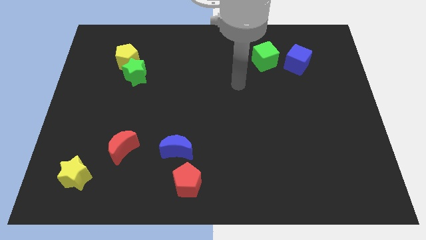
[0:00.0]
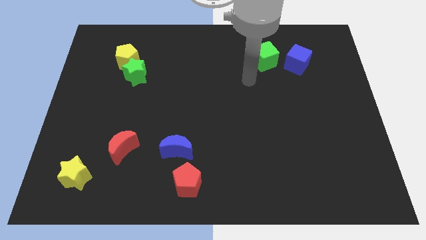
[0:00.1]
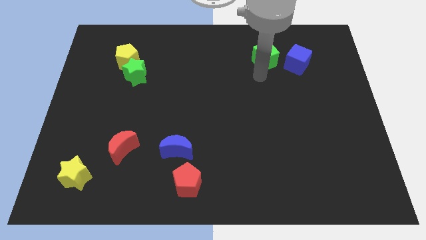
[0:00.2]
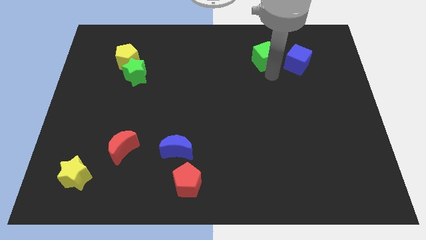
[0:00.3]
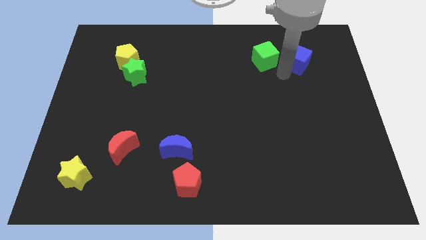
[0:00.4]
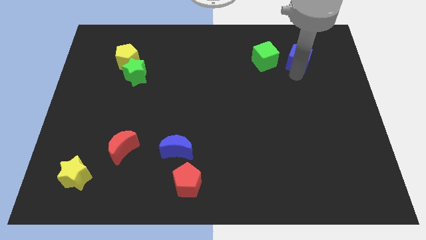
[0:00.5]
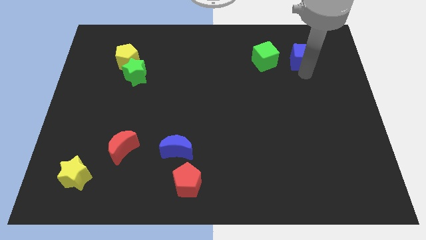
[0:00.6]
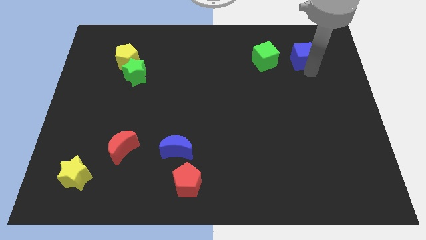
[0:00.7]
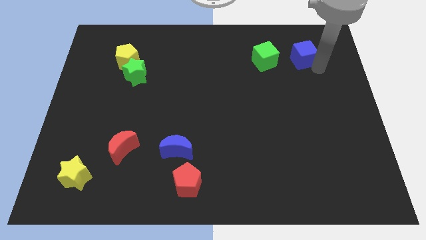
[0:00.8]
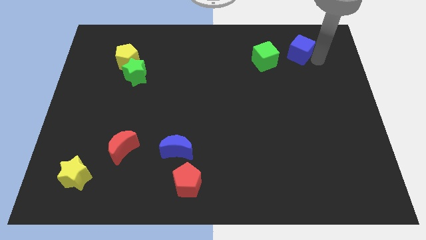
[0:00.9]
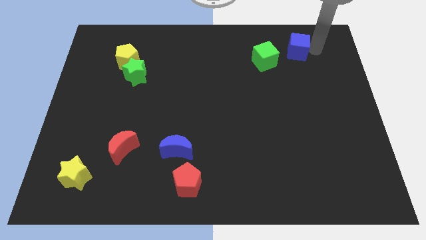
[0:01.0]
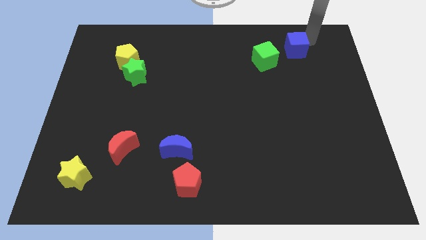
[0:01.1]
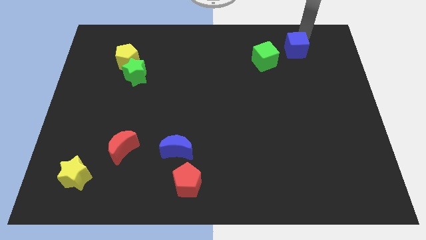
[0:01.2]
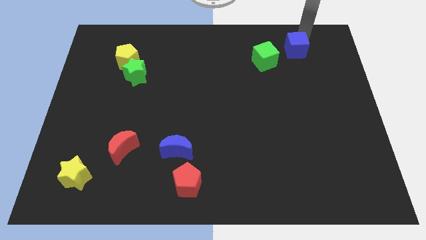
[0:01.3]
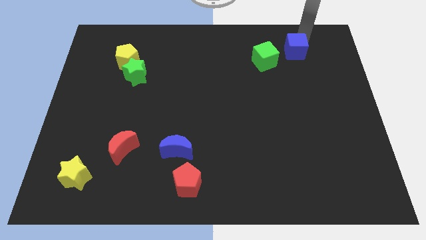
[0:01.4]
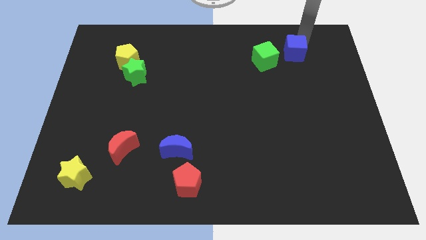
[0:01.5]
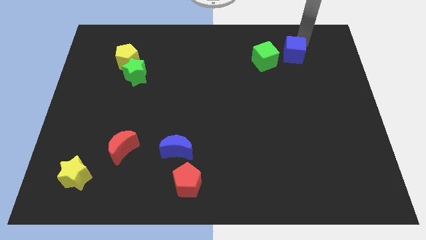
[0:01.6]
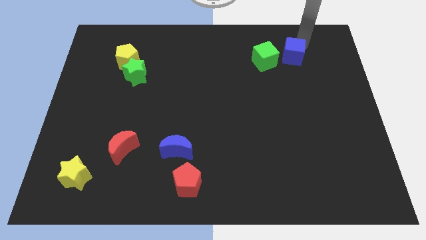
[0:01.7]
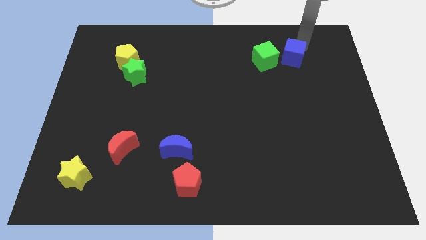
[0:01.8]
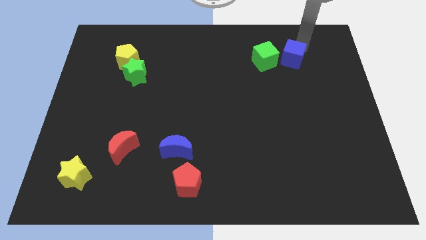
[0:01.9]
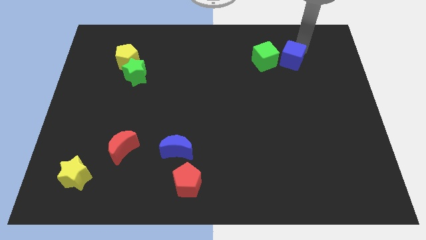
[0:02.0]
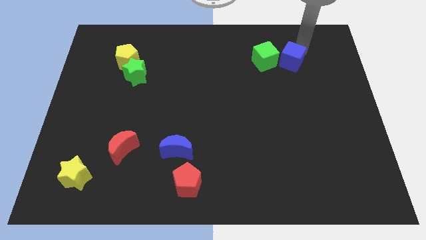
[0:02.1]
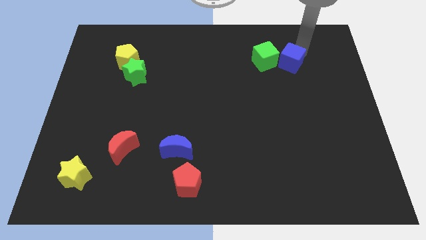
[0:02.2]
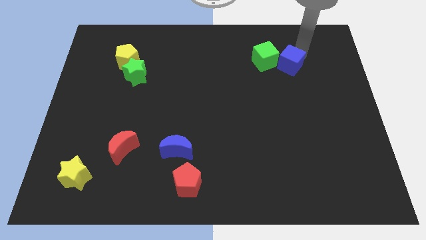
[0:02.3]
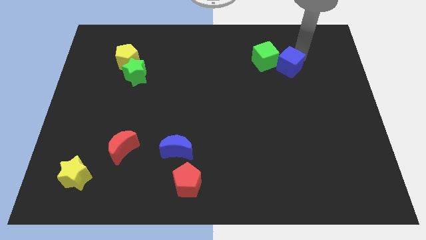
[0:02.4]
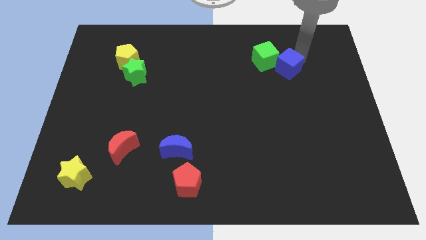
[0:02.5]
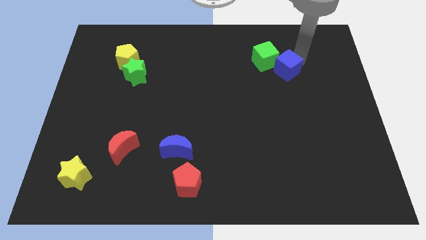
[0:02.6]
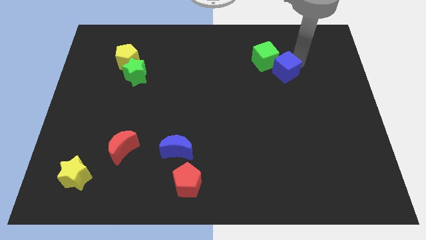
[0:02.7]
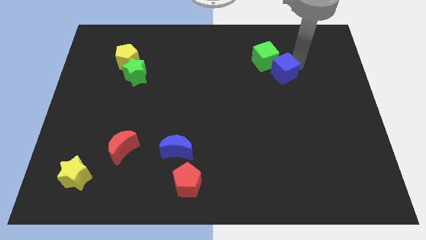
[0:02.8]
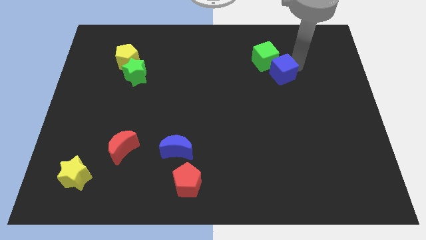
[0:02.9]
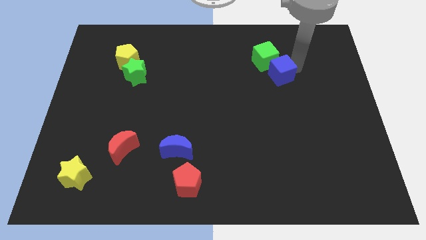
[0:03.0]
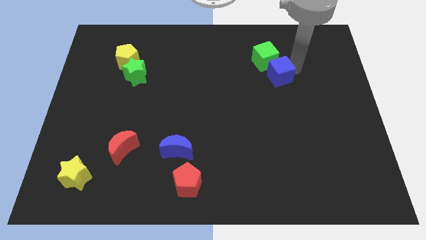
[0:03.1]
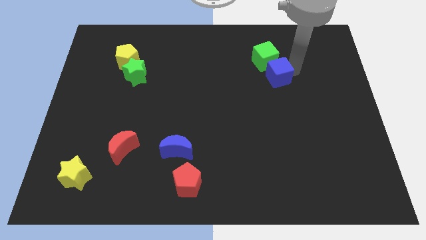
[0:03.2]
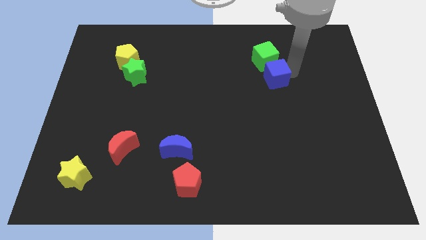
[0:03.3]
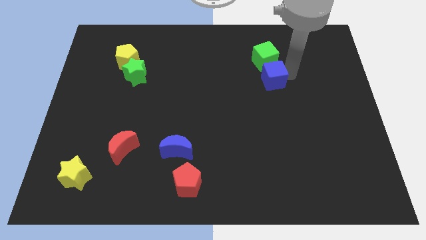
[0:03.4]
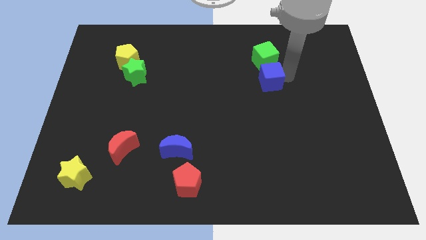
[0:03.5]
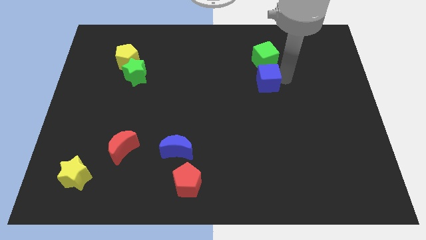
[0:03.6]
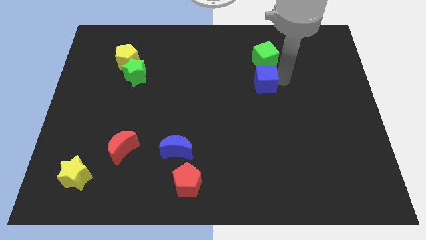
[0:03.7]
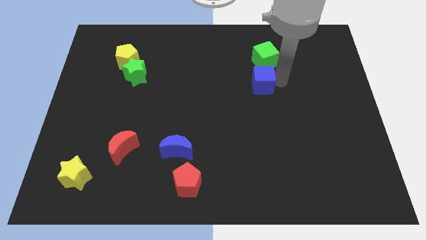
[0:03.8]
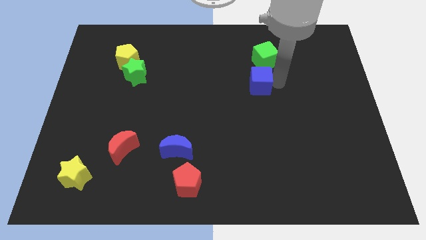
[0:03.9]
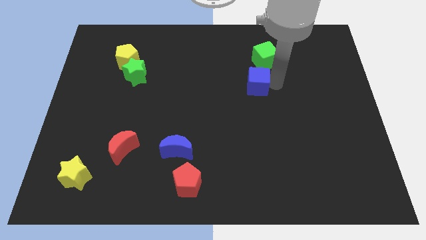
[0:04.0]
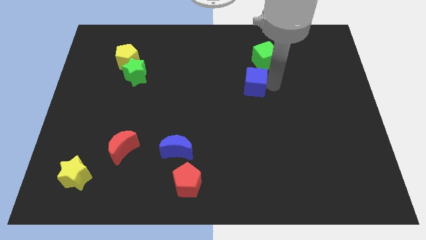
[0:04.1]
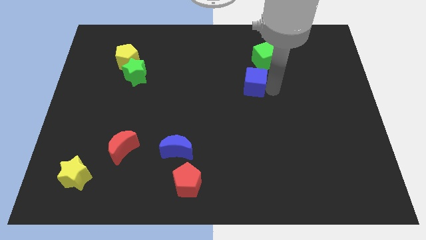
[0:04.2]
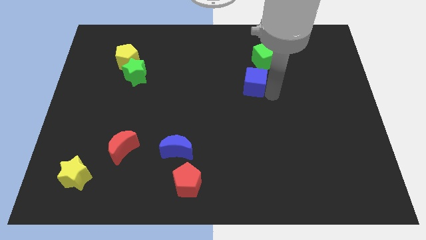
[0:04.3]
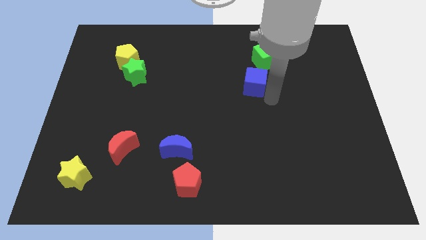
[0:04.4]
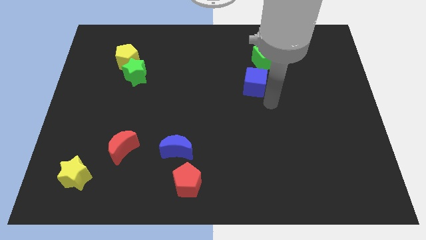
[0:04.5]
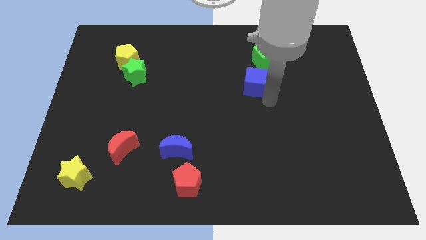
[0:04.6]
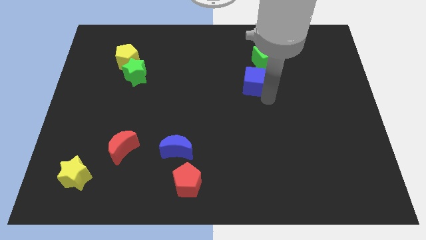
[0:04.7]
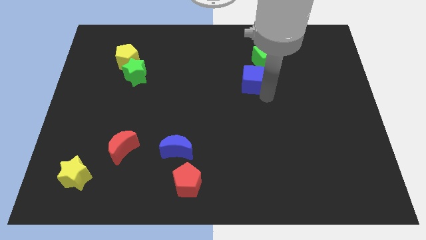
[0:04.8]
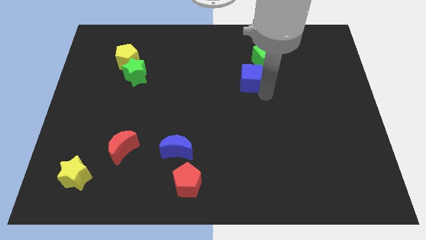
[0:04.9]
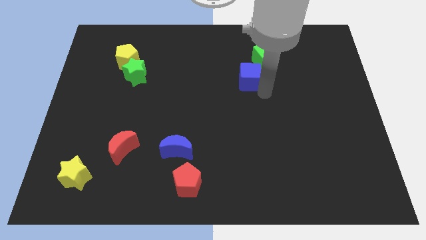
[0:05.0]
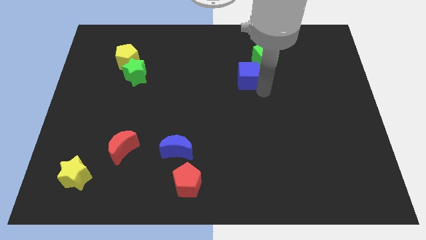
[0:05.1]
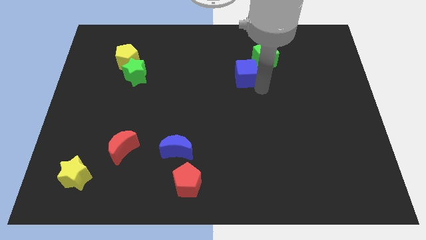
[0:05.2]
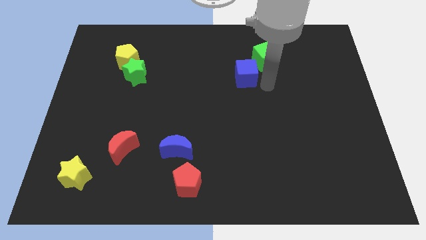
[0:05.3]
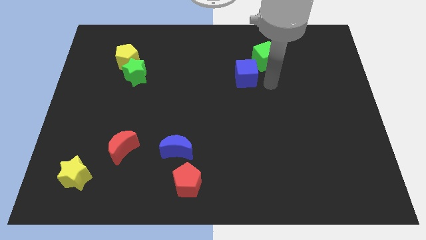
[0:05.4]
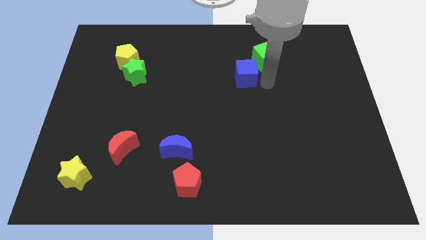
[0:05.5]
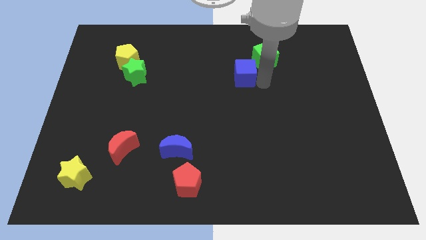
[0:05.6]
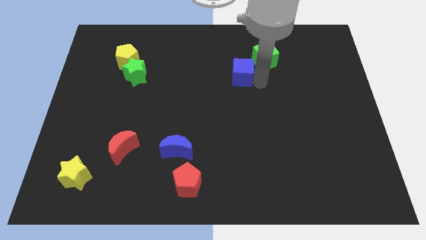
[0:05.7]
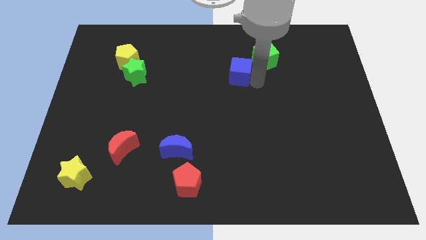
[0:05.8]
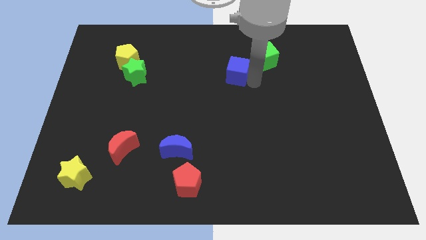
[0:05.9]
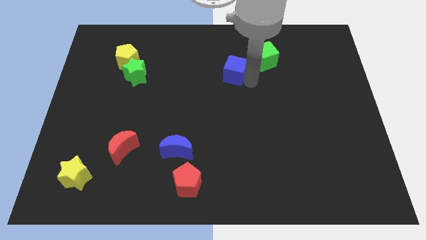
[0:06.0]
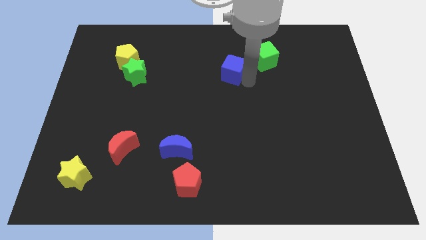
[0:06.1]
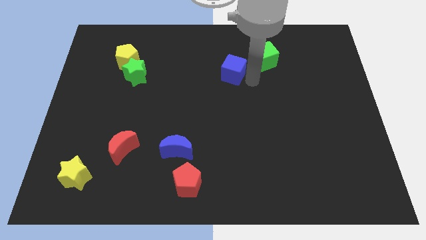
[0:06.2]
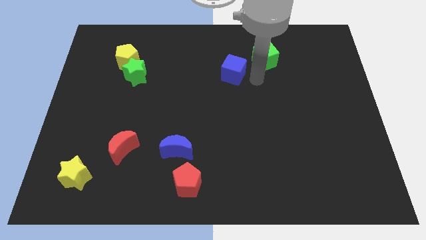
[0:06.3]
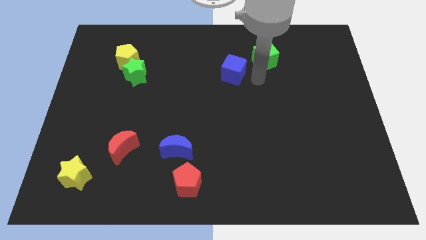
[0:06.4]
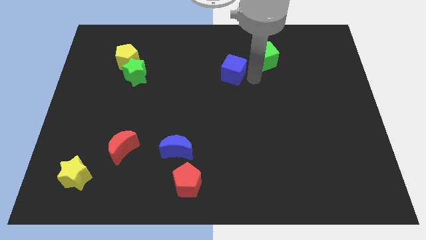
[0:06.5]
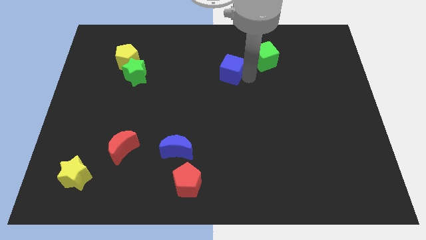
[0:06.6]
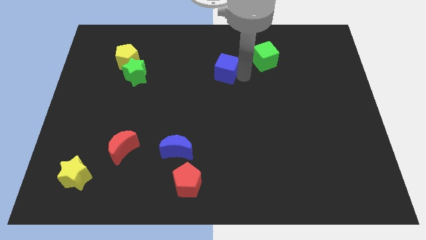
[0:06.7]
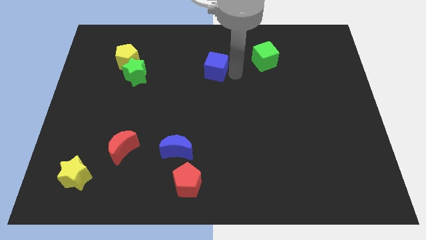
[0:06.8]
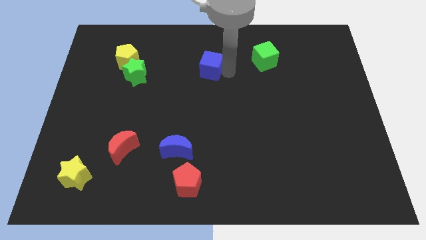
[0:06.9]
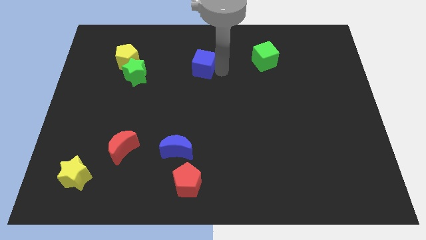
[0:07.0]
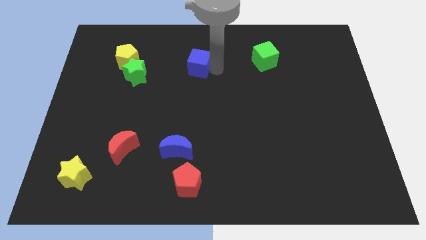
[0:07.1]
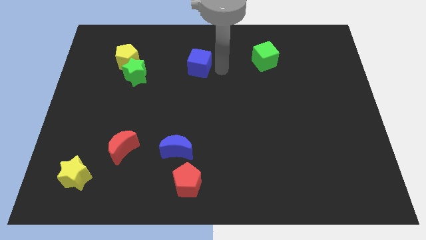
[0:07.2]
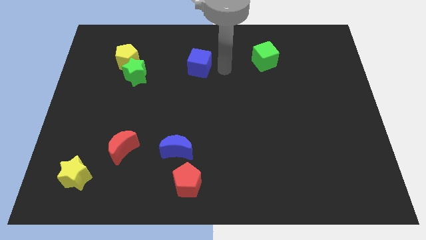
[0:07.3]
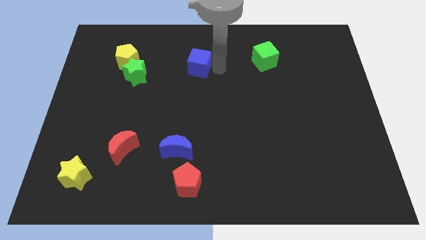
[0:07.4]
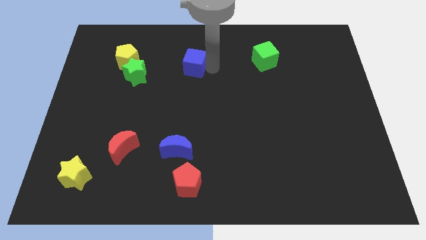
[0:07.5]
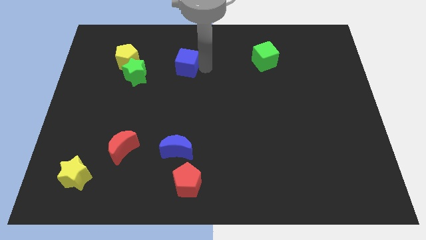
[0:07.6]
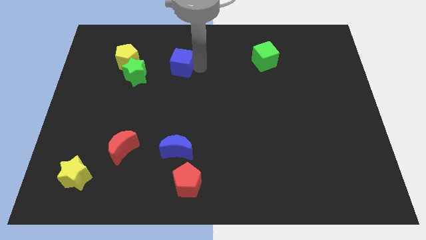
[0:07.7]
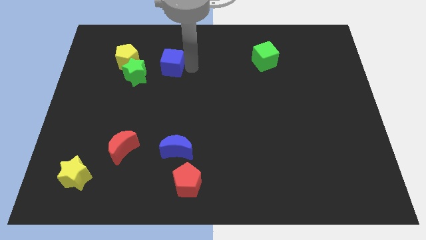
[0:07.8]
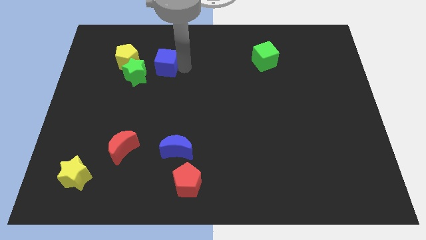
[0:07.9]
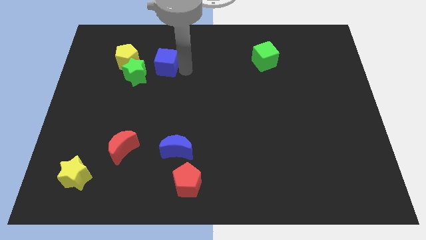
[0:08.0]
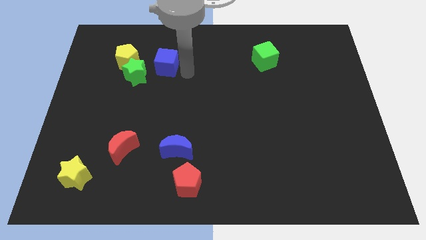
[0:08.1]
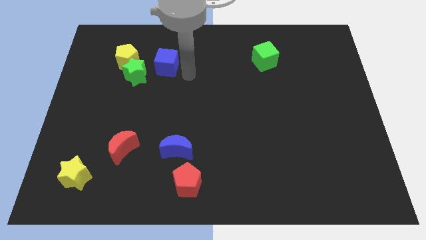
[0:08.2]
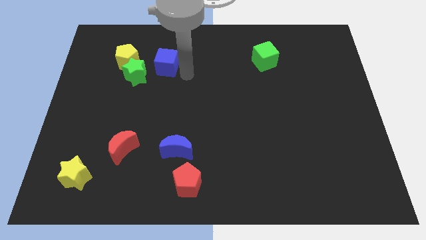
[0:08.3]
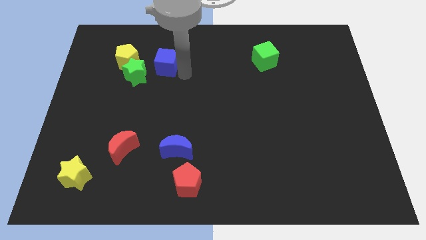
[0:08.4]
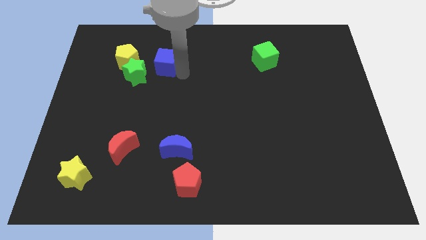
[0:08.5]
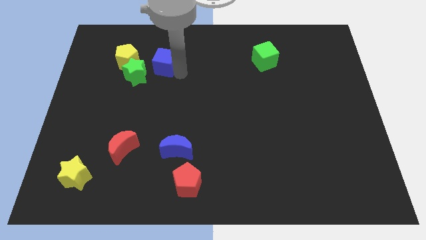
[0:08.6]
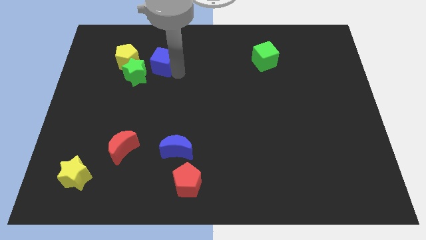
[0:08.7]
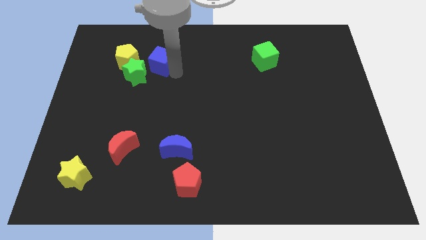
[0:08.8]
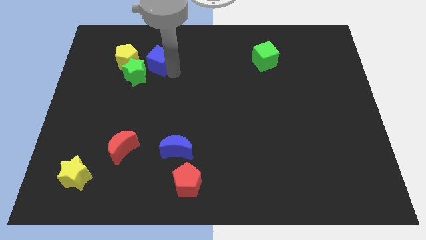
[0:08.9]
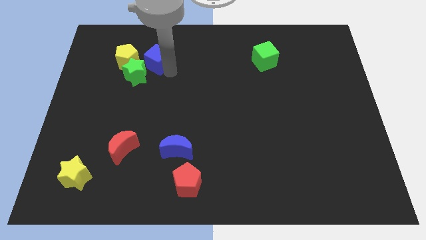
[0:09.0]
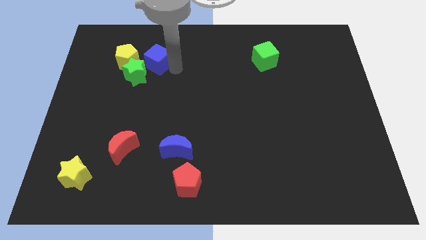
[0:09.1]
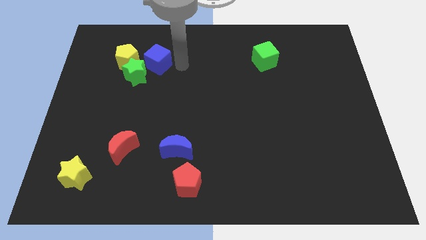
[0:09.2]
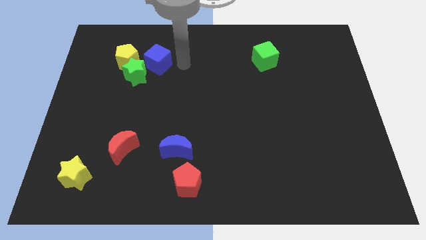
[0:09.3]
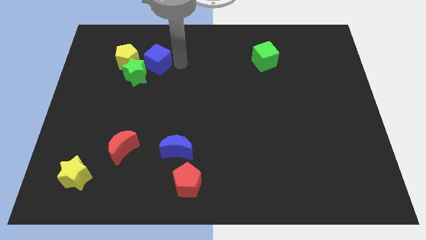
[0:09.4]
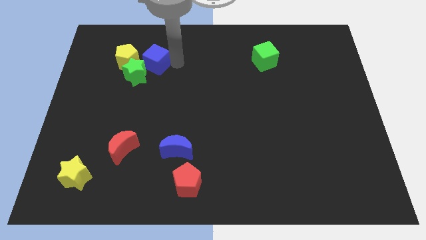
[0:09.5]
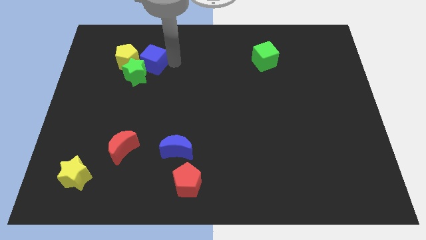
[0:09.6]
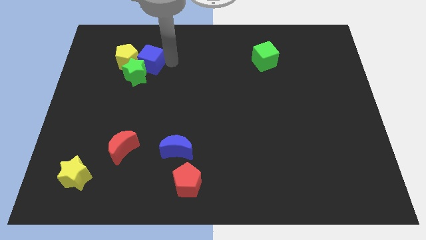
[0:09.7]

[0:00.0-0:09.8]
move the blue cube next to the yellow pentagon
